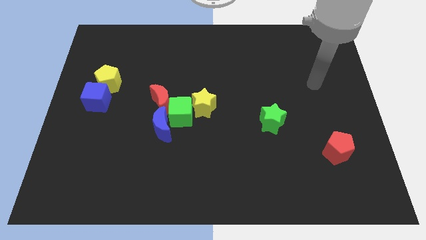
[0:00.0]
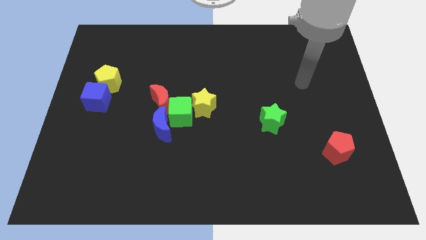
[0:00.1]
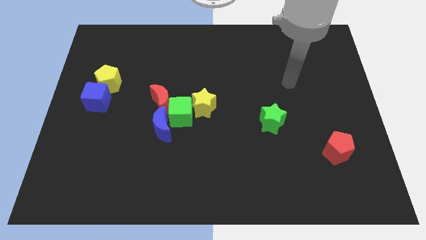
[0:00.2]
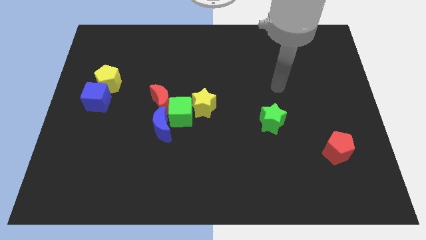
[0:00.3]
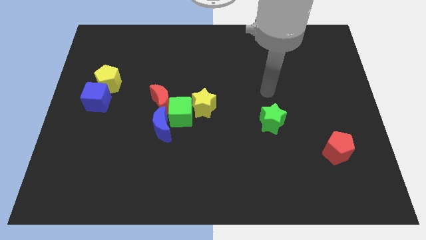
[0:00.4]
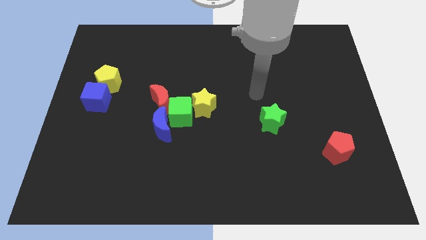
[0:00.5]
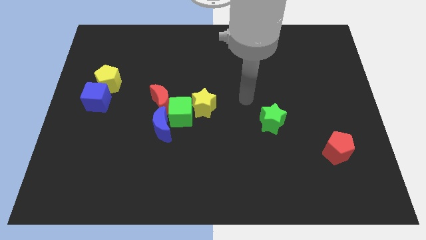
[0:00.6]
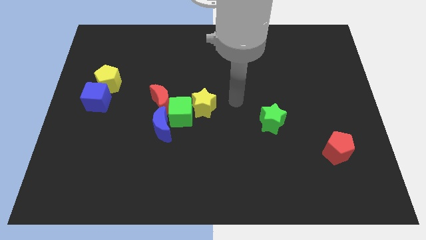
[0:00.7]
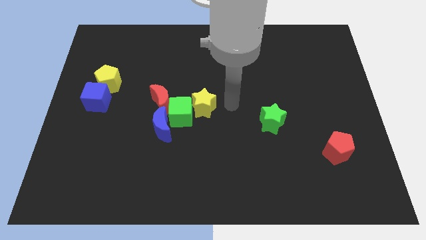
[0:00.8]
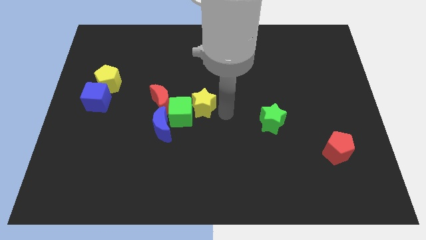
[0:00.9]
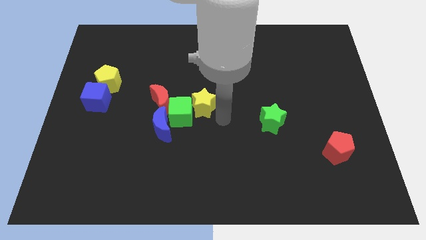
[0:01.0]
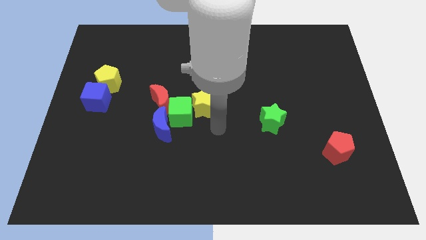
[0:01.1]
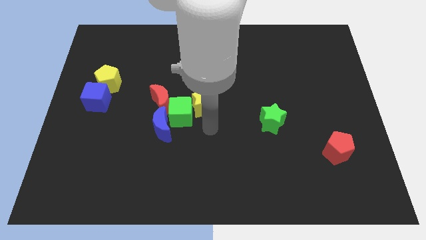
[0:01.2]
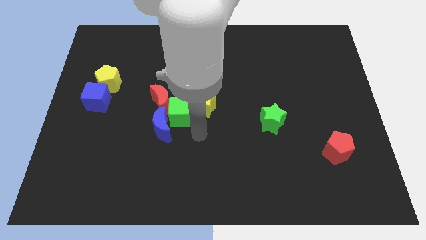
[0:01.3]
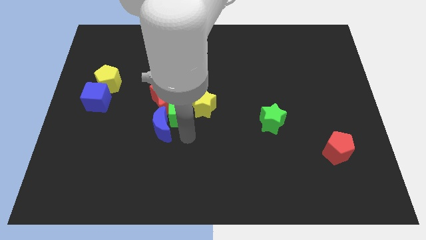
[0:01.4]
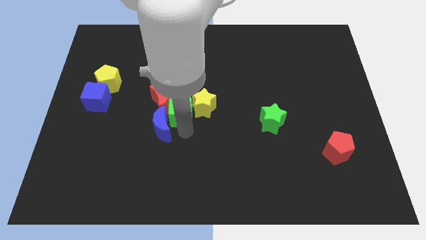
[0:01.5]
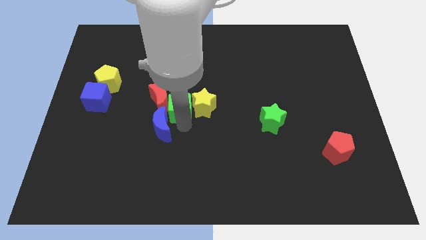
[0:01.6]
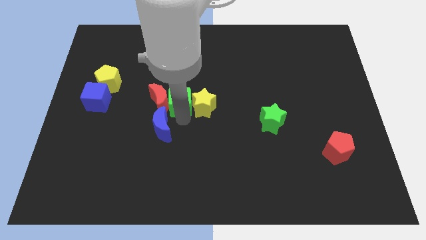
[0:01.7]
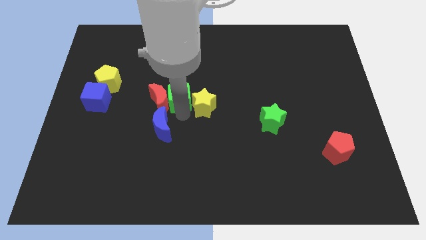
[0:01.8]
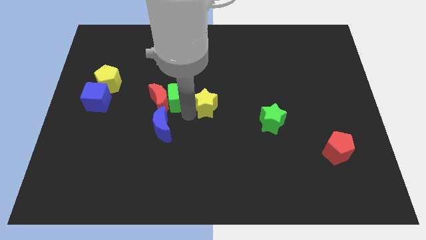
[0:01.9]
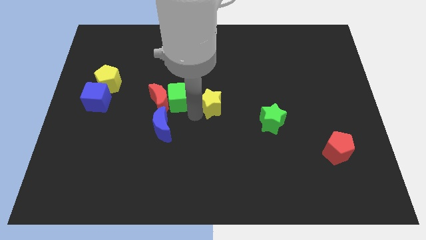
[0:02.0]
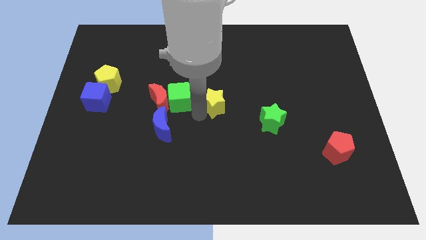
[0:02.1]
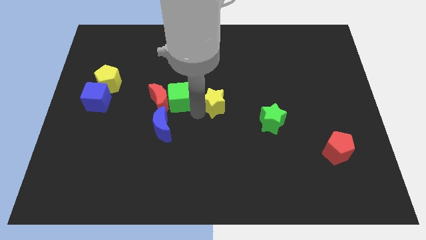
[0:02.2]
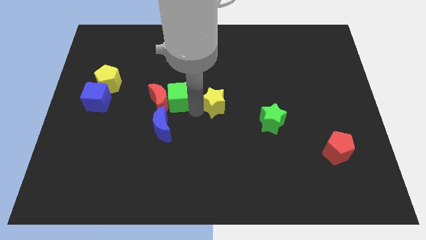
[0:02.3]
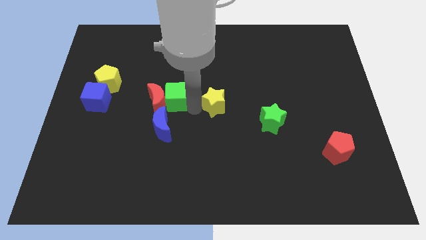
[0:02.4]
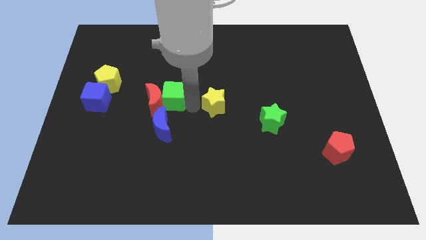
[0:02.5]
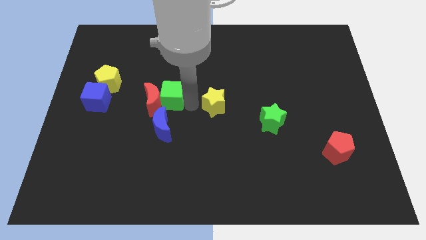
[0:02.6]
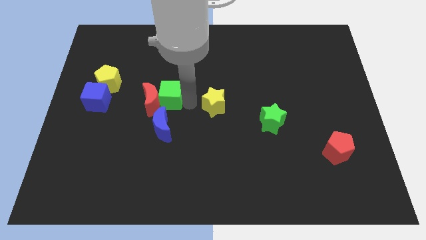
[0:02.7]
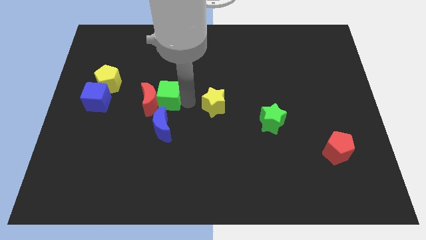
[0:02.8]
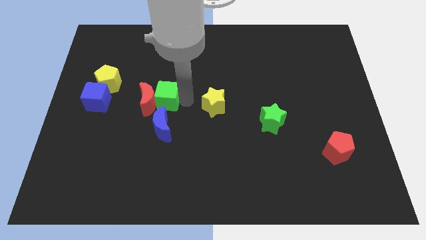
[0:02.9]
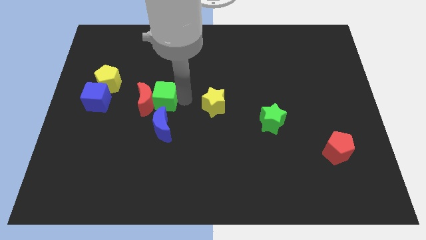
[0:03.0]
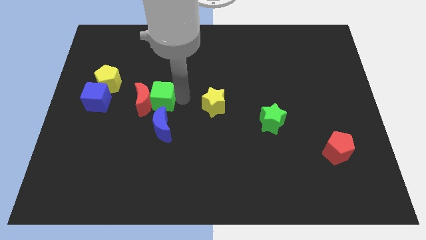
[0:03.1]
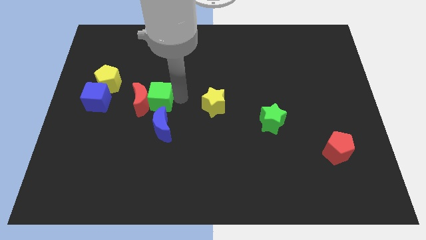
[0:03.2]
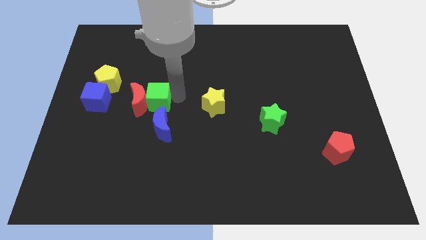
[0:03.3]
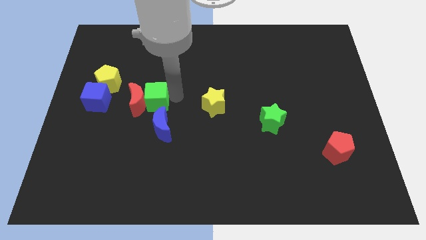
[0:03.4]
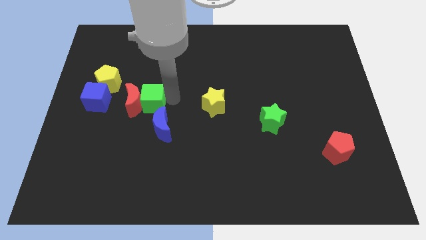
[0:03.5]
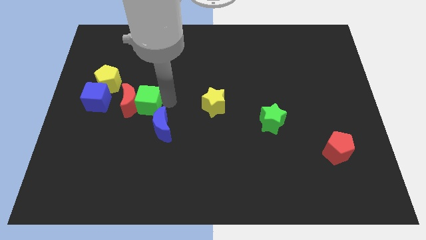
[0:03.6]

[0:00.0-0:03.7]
slightly slide the green cube to the left

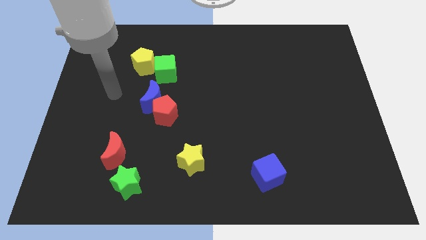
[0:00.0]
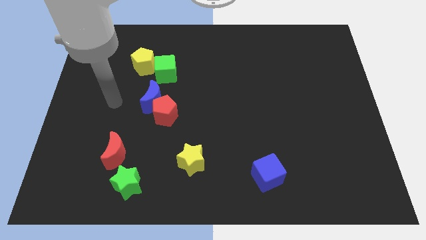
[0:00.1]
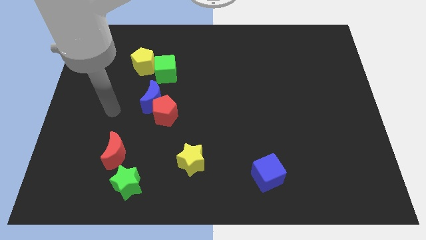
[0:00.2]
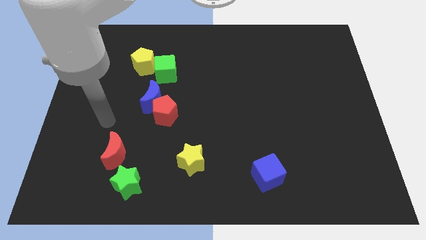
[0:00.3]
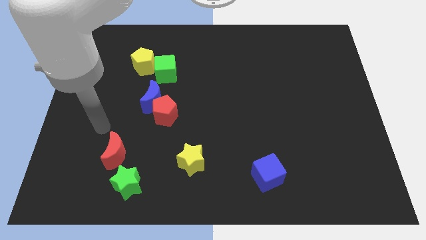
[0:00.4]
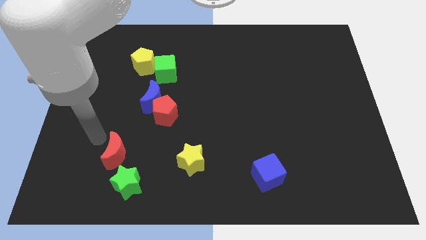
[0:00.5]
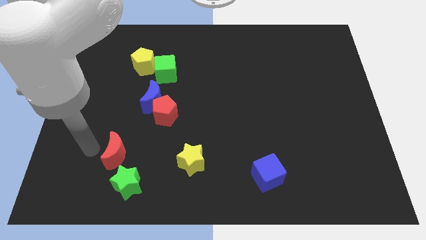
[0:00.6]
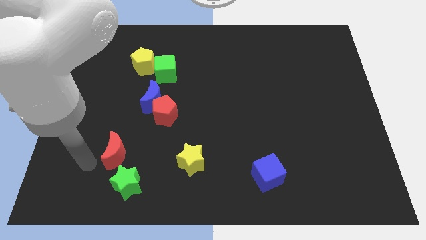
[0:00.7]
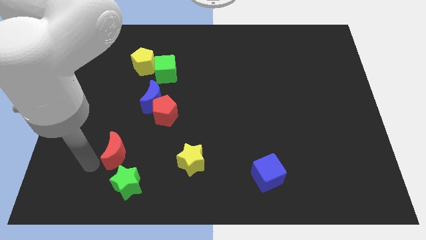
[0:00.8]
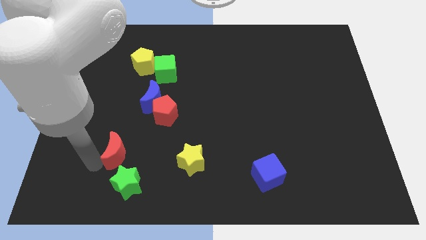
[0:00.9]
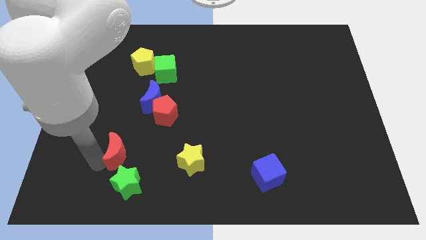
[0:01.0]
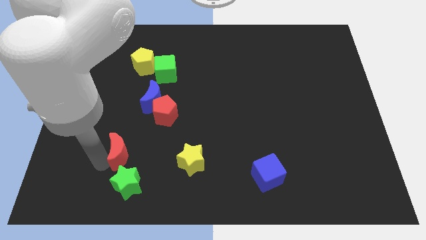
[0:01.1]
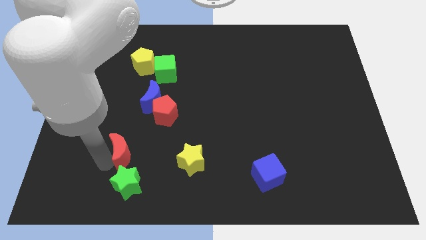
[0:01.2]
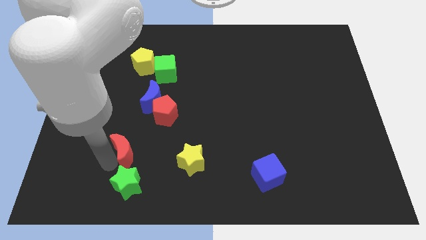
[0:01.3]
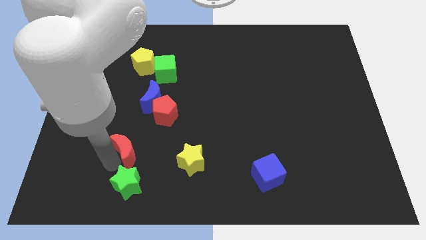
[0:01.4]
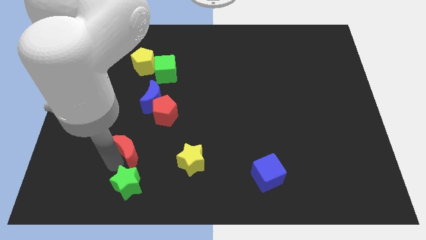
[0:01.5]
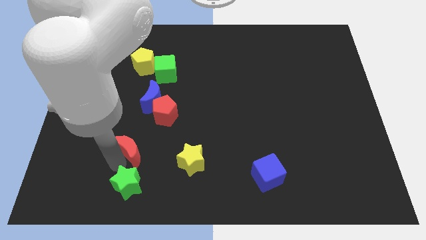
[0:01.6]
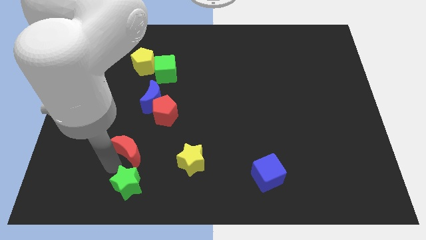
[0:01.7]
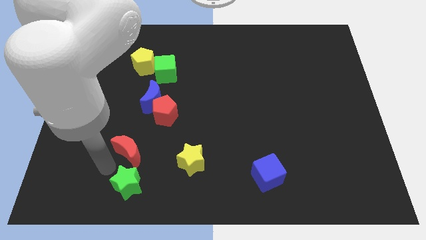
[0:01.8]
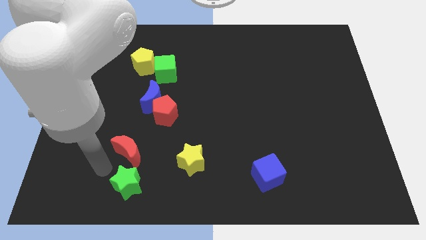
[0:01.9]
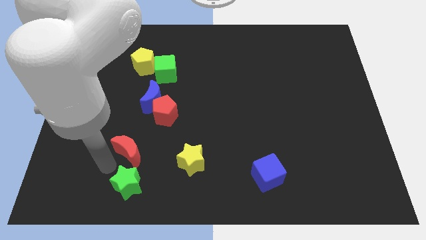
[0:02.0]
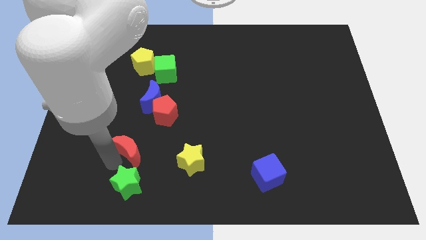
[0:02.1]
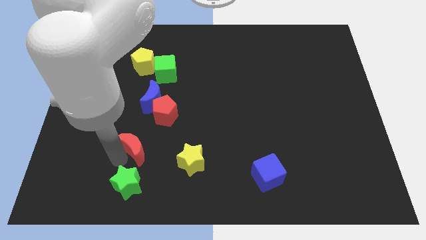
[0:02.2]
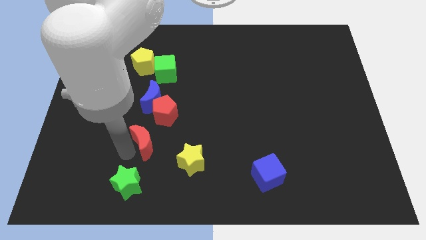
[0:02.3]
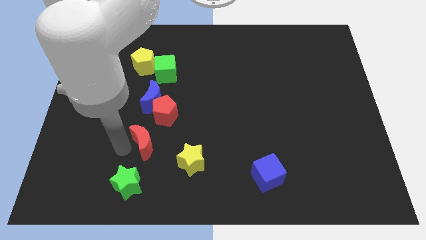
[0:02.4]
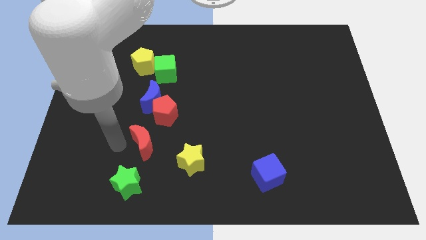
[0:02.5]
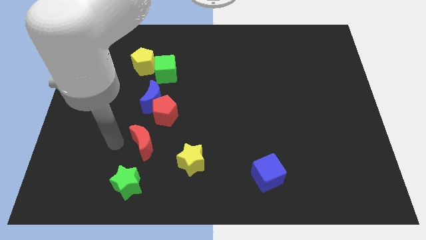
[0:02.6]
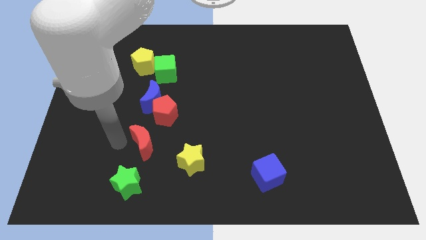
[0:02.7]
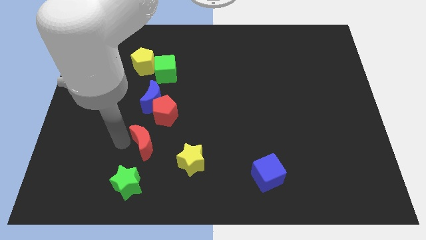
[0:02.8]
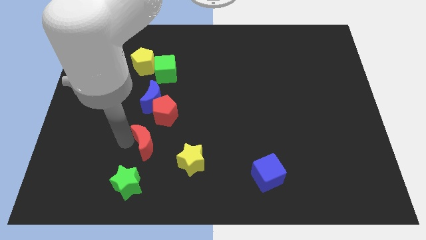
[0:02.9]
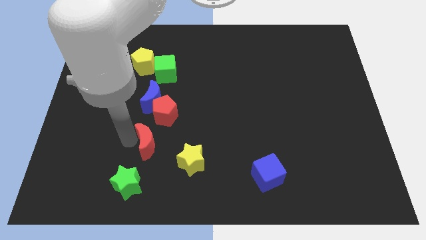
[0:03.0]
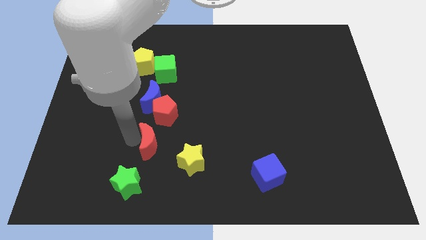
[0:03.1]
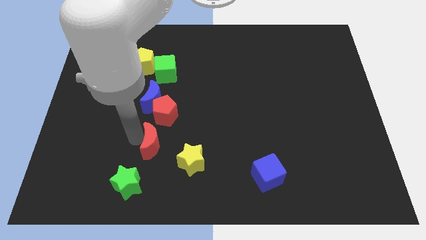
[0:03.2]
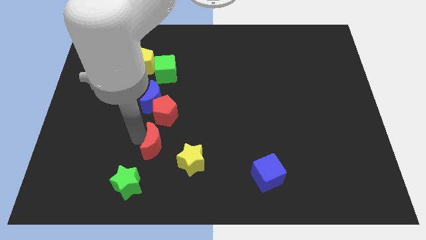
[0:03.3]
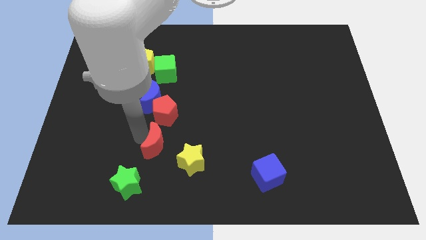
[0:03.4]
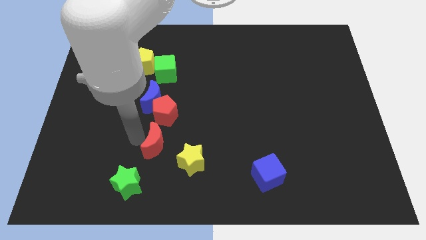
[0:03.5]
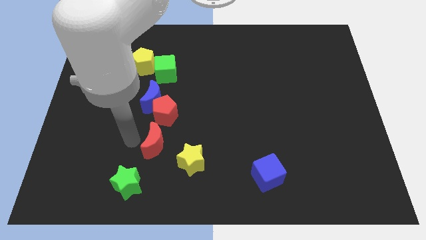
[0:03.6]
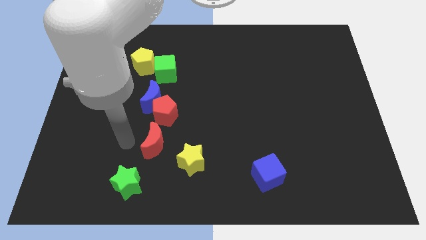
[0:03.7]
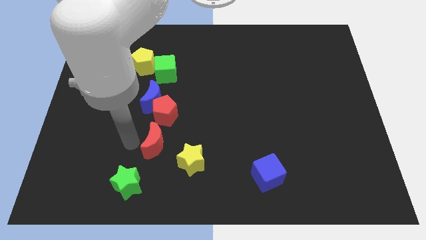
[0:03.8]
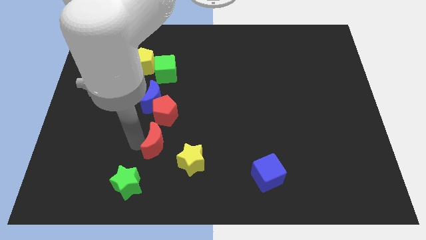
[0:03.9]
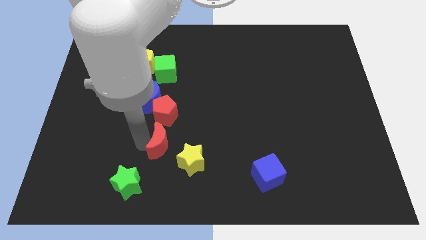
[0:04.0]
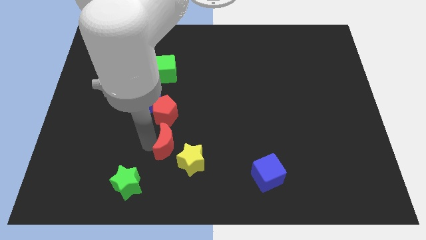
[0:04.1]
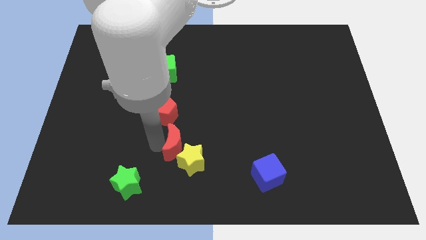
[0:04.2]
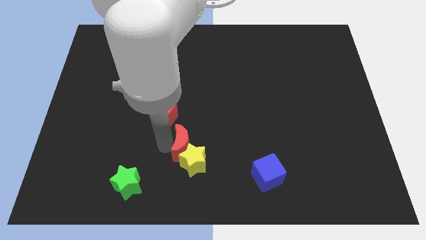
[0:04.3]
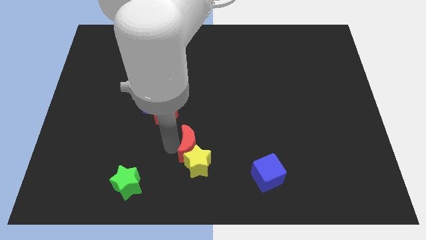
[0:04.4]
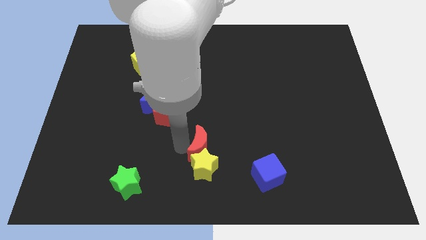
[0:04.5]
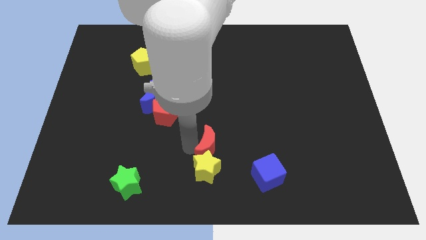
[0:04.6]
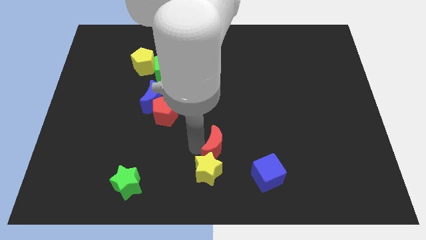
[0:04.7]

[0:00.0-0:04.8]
slide the red moon right
